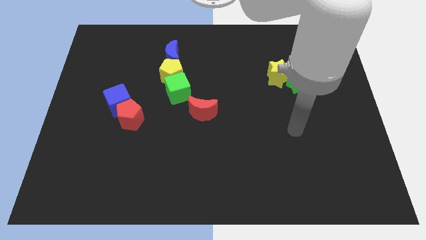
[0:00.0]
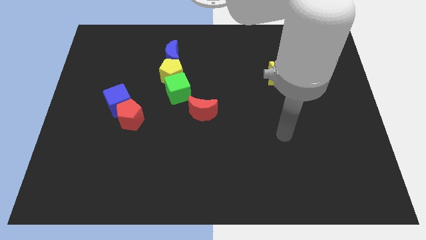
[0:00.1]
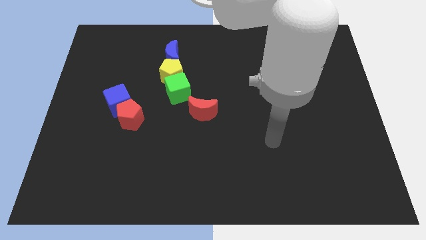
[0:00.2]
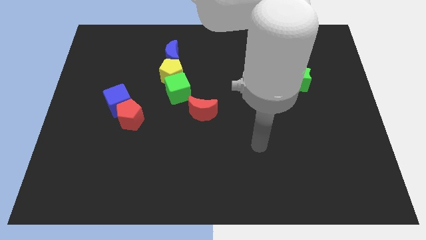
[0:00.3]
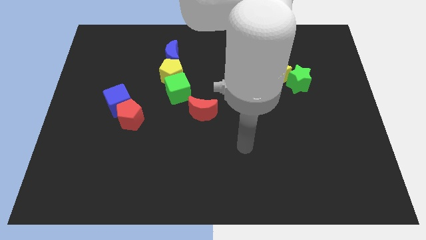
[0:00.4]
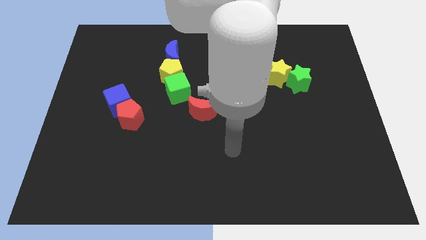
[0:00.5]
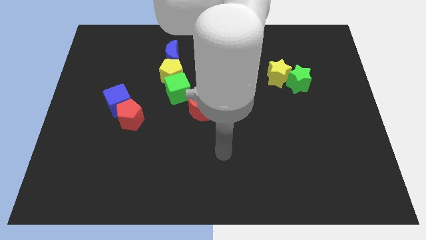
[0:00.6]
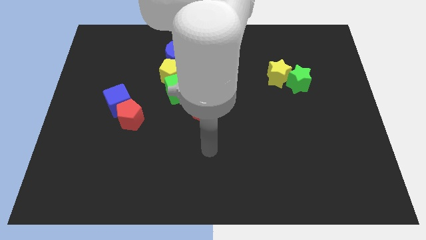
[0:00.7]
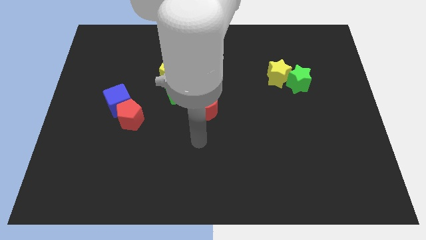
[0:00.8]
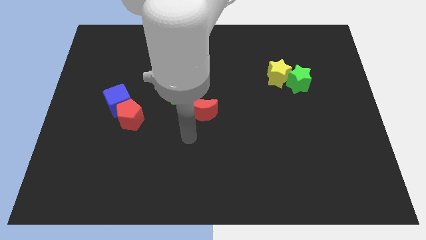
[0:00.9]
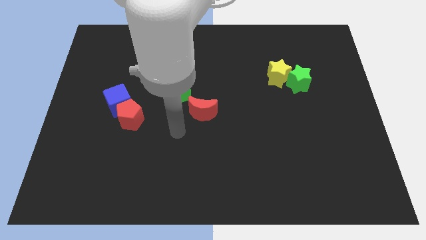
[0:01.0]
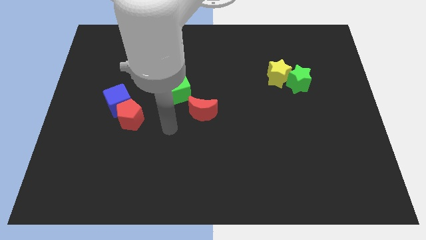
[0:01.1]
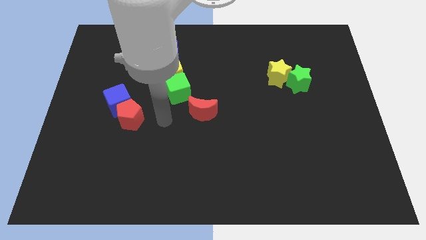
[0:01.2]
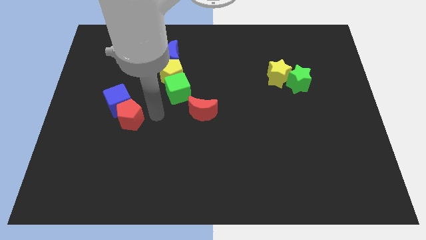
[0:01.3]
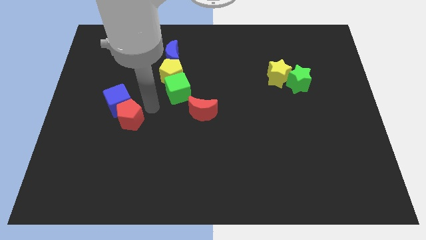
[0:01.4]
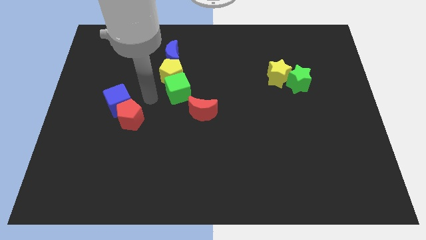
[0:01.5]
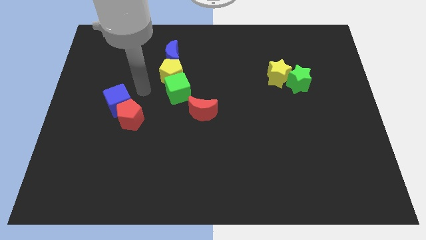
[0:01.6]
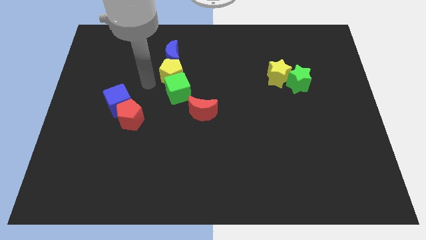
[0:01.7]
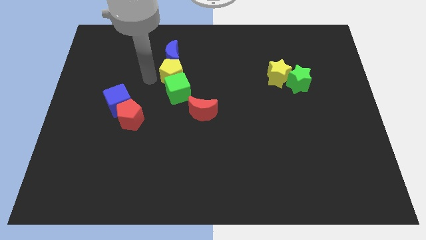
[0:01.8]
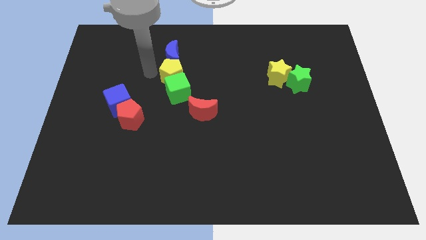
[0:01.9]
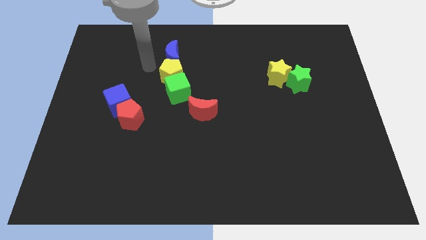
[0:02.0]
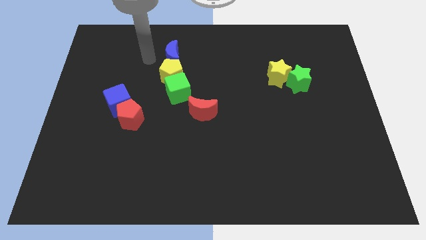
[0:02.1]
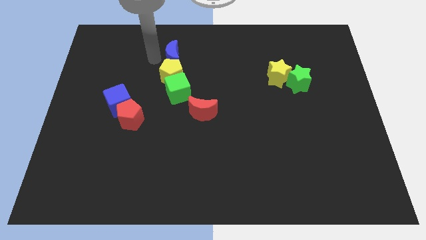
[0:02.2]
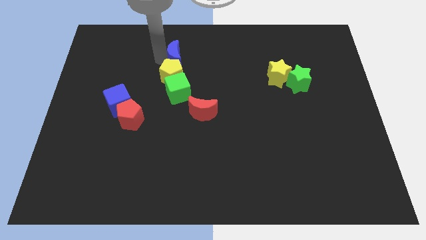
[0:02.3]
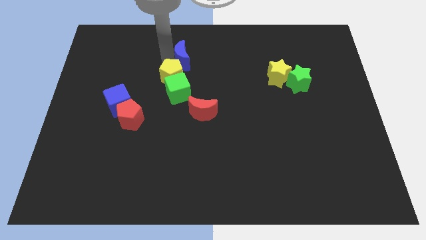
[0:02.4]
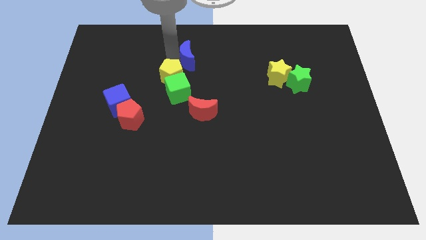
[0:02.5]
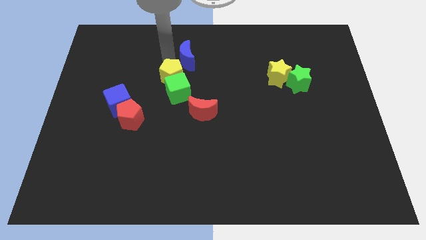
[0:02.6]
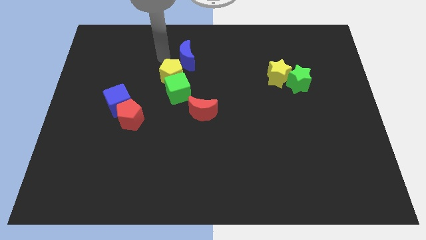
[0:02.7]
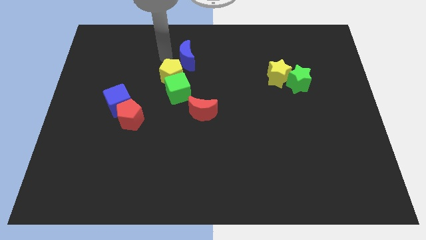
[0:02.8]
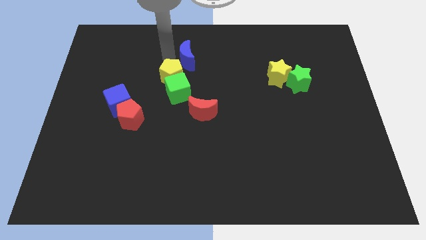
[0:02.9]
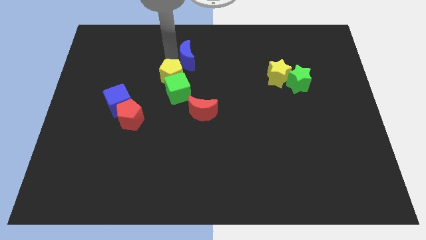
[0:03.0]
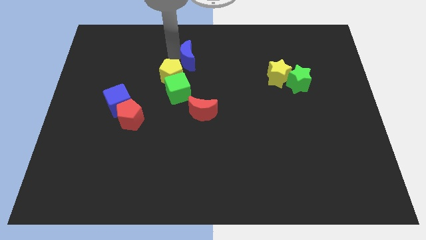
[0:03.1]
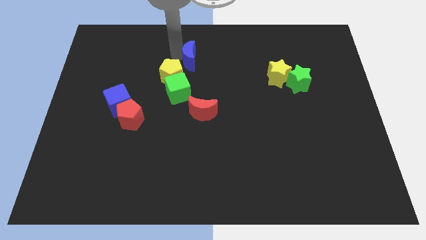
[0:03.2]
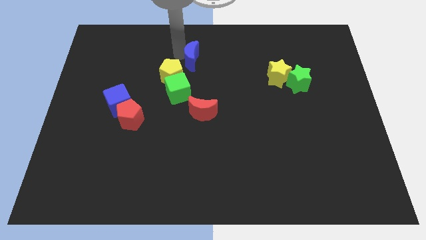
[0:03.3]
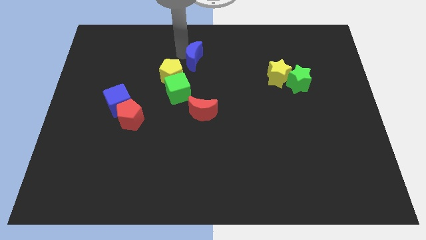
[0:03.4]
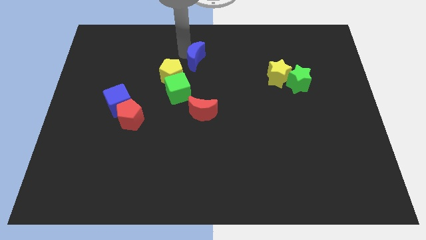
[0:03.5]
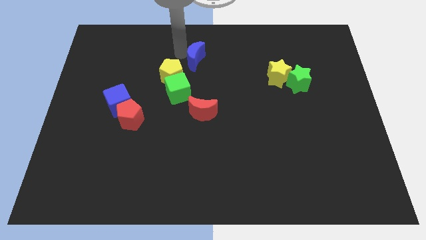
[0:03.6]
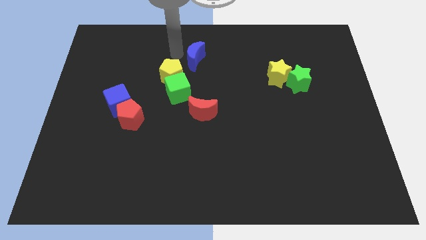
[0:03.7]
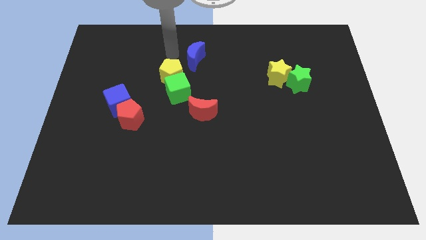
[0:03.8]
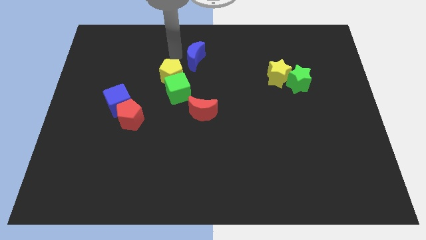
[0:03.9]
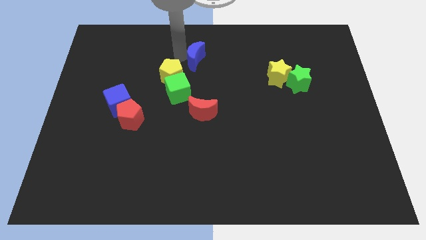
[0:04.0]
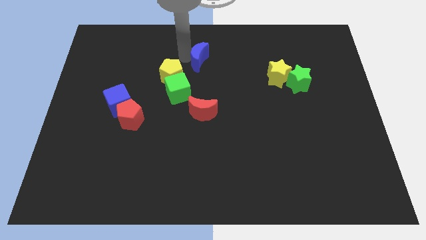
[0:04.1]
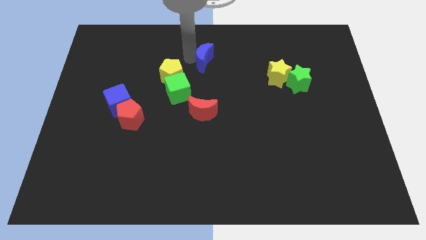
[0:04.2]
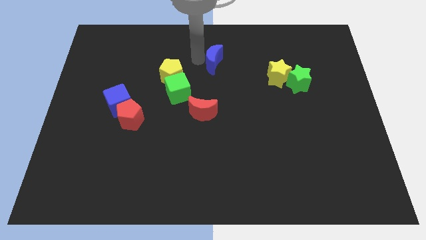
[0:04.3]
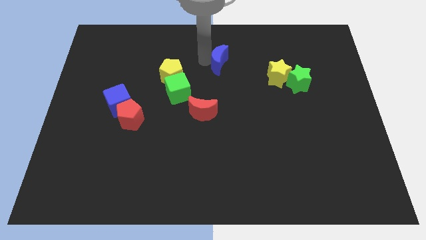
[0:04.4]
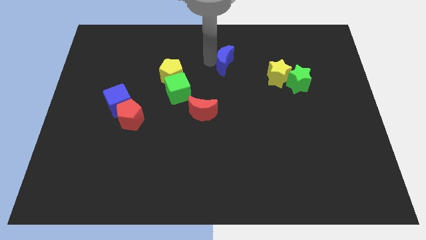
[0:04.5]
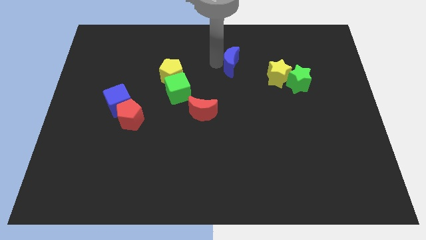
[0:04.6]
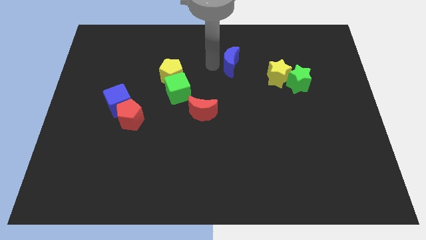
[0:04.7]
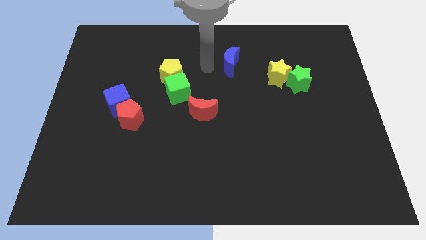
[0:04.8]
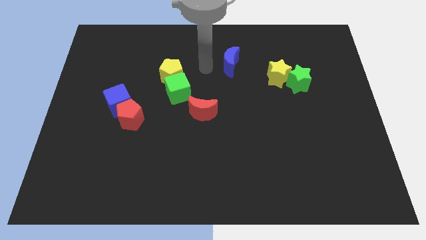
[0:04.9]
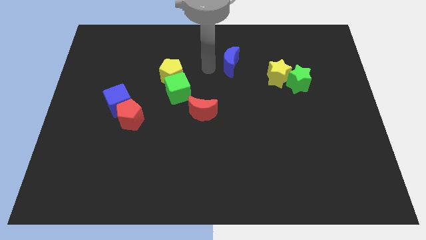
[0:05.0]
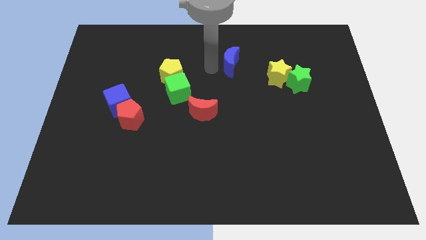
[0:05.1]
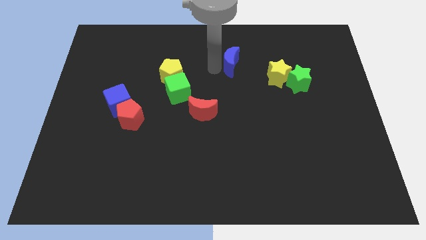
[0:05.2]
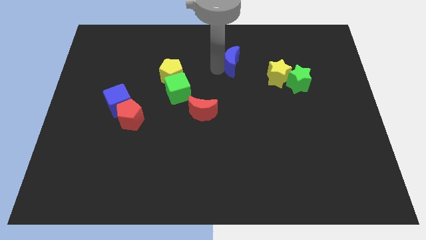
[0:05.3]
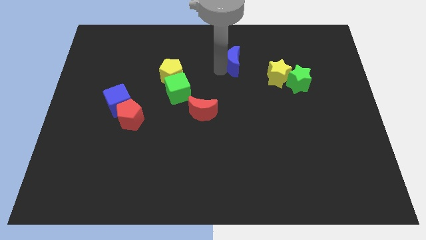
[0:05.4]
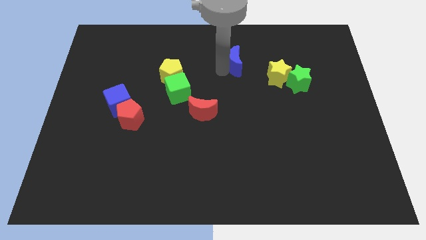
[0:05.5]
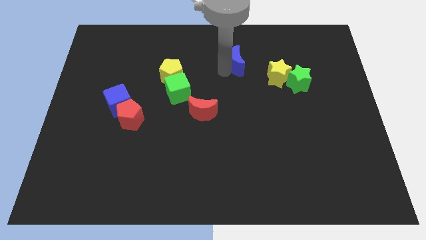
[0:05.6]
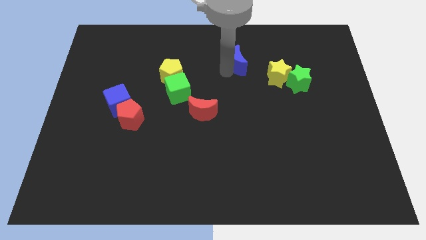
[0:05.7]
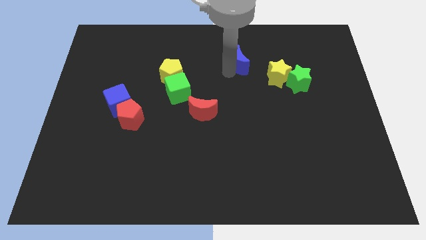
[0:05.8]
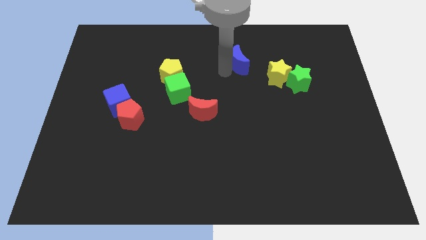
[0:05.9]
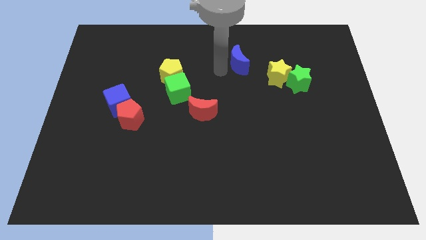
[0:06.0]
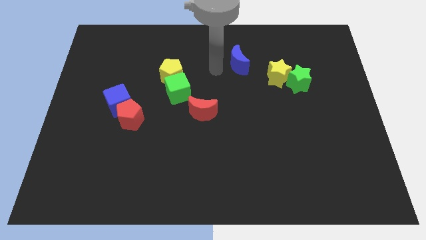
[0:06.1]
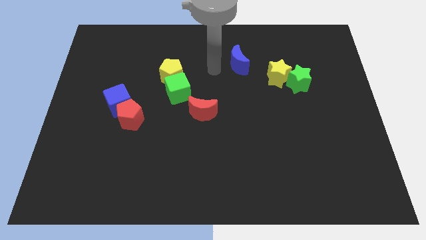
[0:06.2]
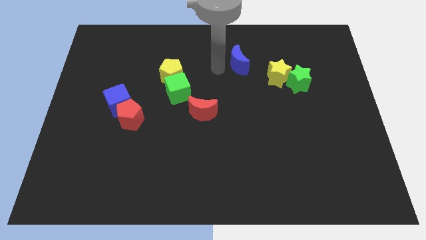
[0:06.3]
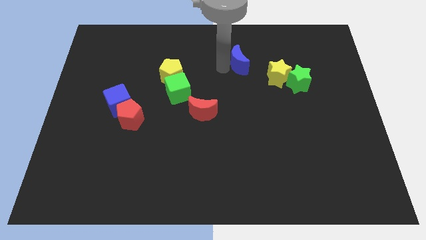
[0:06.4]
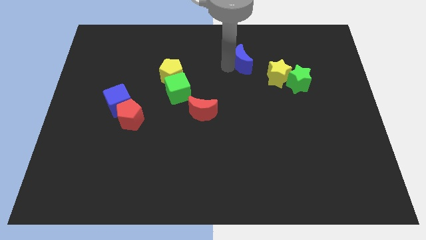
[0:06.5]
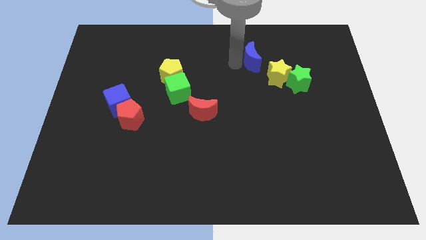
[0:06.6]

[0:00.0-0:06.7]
move the blue moon right

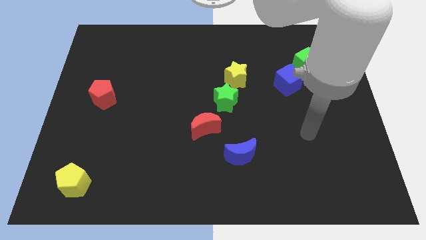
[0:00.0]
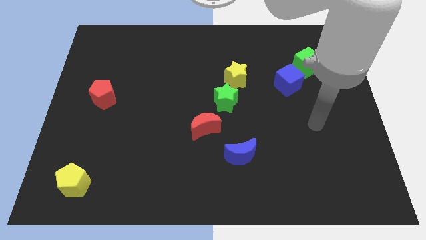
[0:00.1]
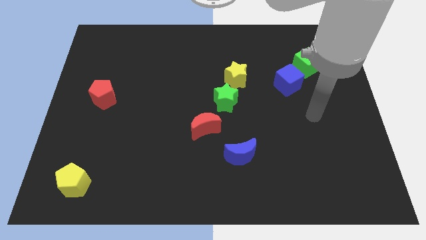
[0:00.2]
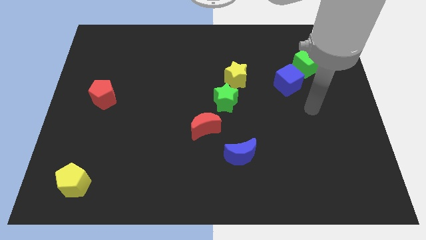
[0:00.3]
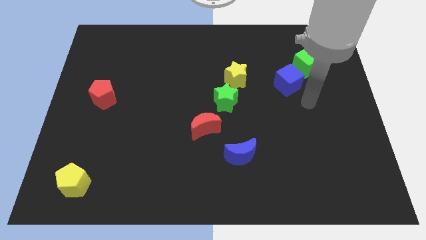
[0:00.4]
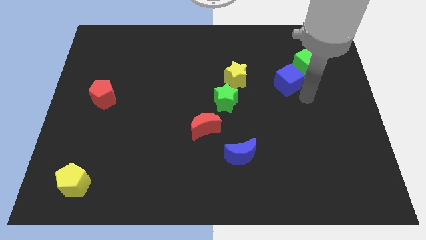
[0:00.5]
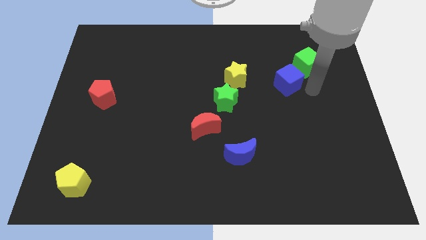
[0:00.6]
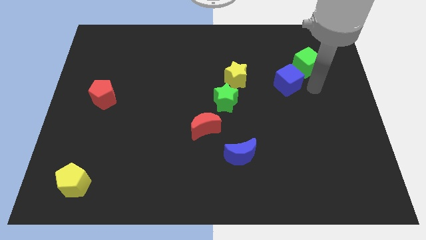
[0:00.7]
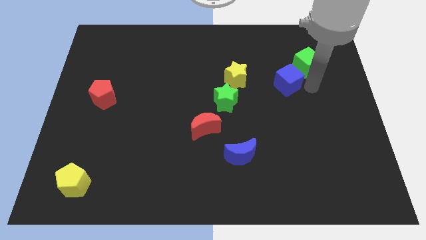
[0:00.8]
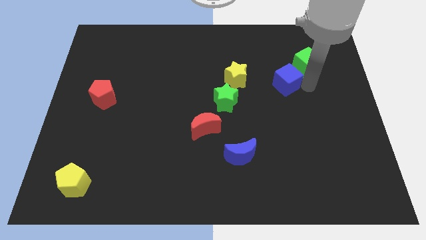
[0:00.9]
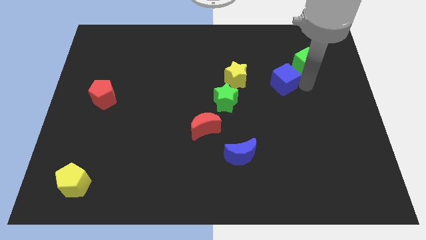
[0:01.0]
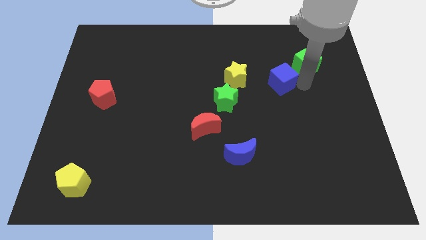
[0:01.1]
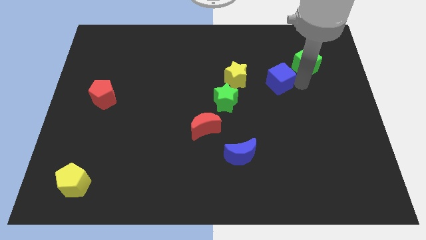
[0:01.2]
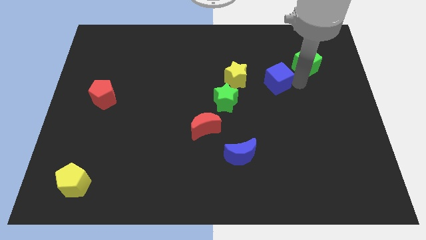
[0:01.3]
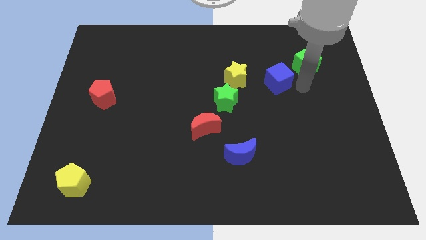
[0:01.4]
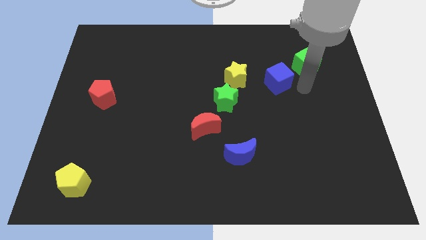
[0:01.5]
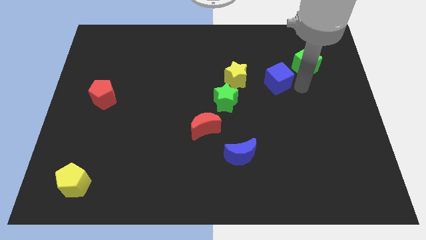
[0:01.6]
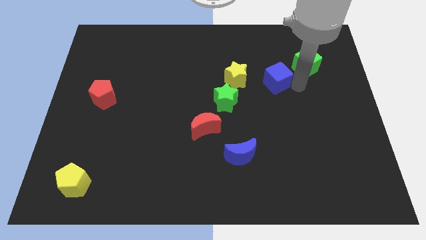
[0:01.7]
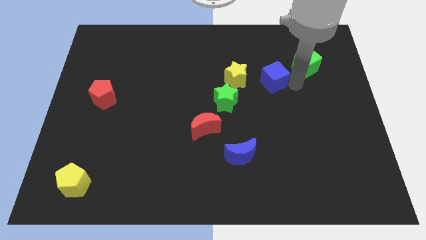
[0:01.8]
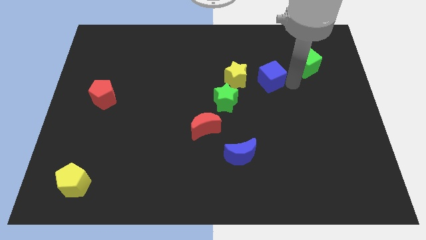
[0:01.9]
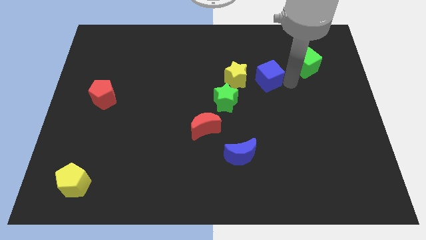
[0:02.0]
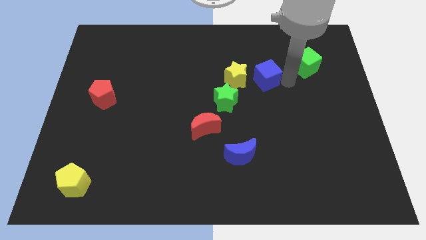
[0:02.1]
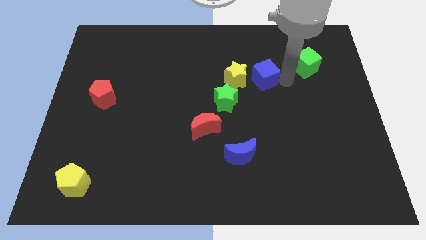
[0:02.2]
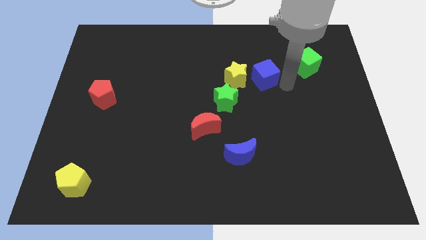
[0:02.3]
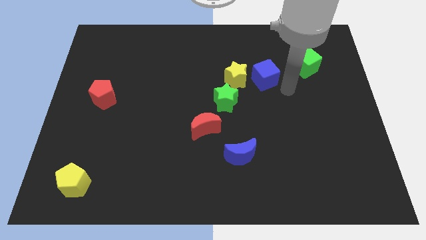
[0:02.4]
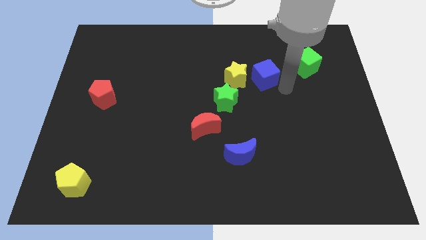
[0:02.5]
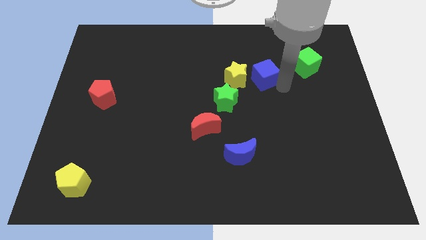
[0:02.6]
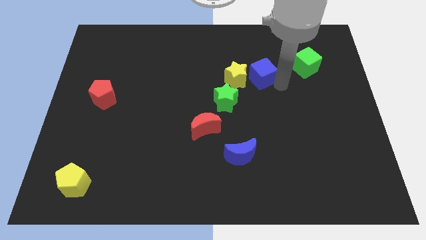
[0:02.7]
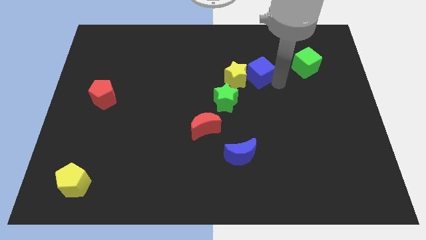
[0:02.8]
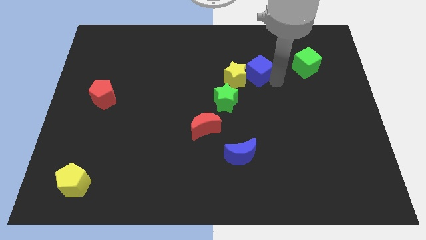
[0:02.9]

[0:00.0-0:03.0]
move the blue cube a bit left
